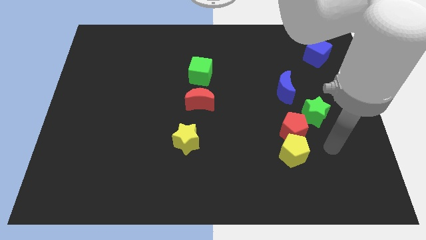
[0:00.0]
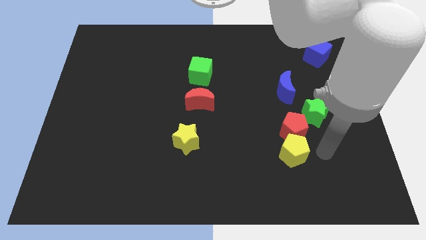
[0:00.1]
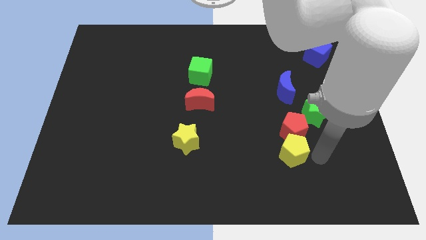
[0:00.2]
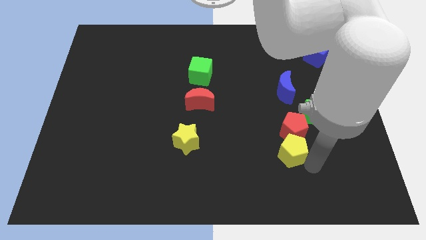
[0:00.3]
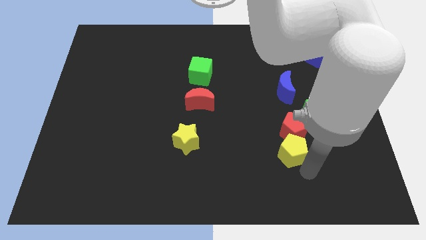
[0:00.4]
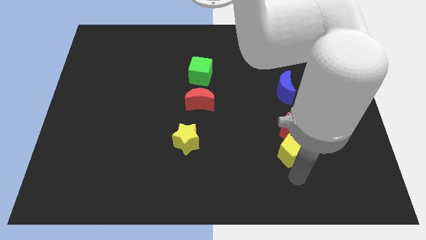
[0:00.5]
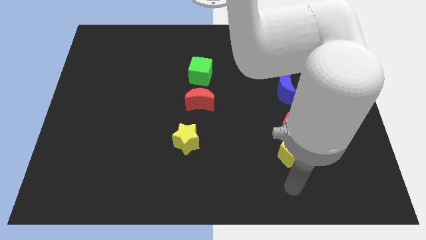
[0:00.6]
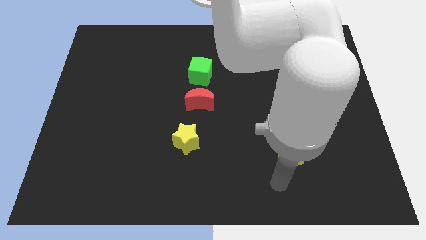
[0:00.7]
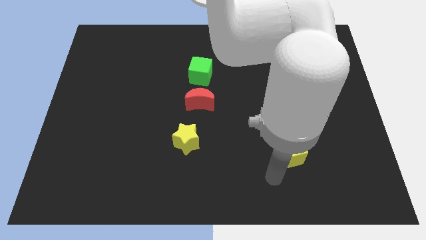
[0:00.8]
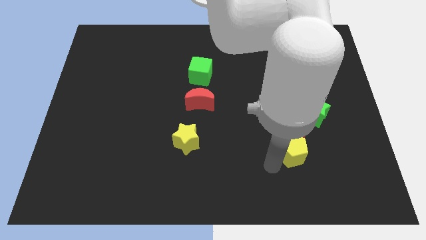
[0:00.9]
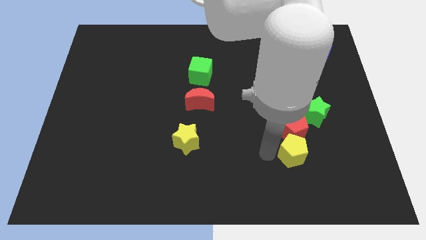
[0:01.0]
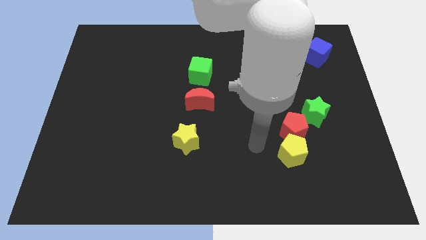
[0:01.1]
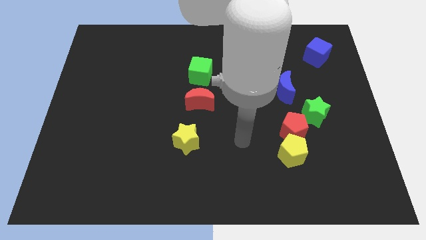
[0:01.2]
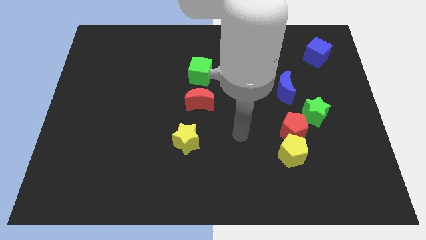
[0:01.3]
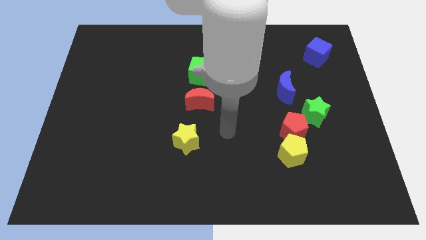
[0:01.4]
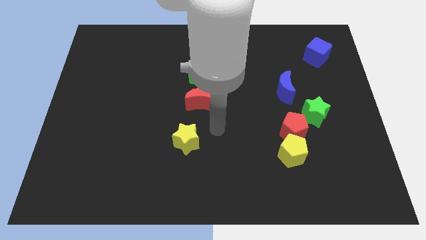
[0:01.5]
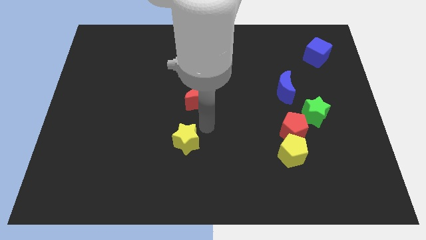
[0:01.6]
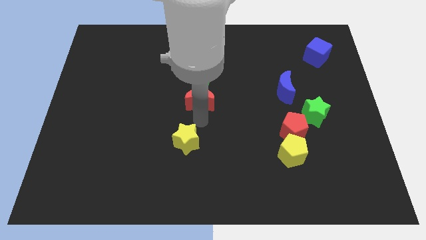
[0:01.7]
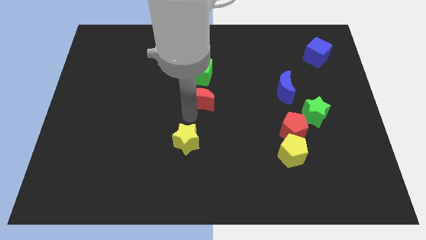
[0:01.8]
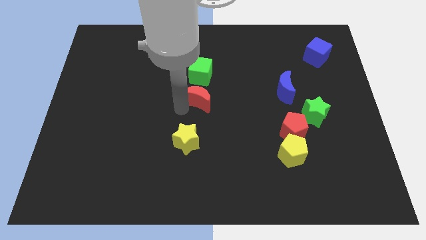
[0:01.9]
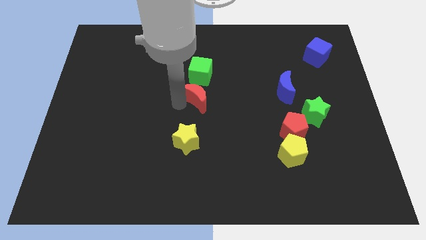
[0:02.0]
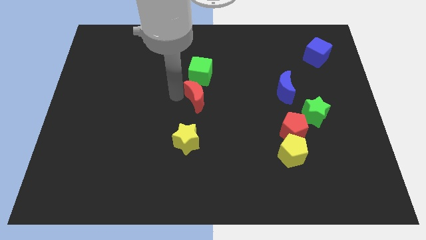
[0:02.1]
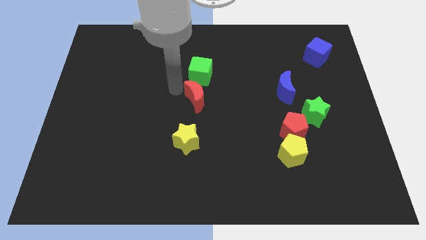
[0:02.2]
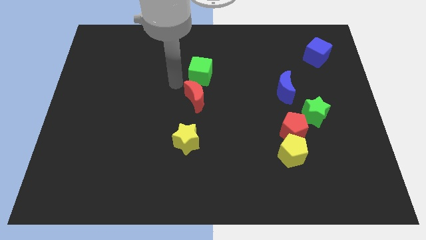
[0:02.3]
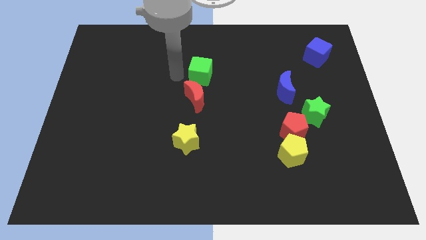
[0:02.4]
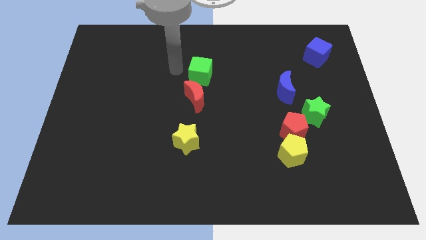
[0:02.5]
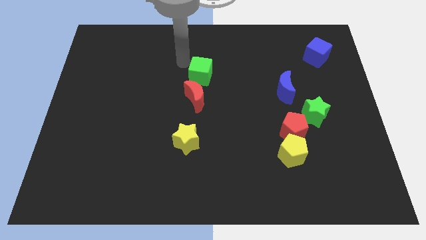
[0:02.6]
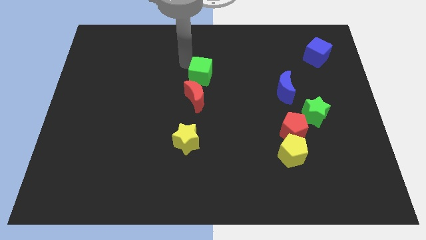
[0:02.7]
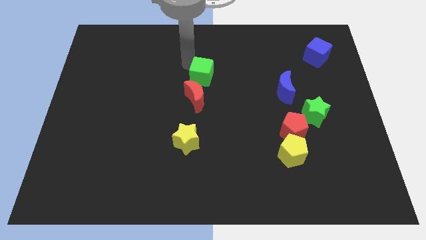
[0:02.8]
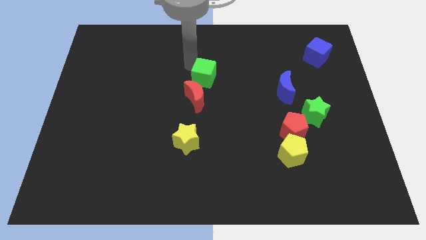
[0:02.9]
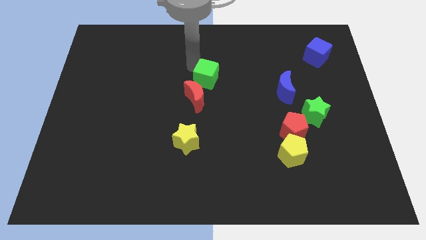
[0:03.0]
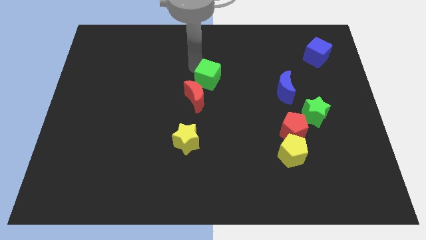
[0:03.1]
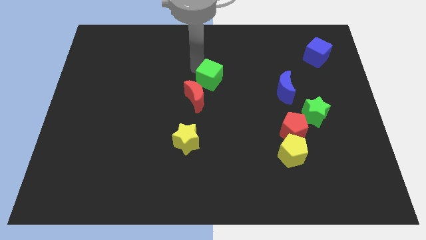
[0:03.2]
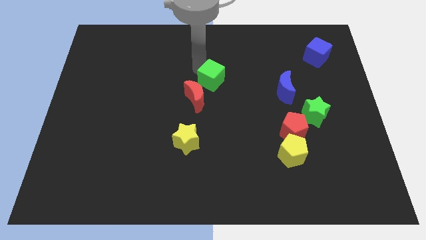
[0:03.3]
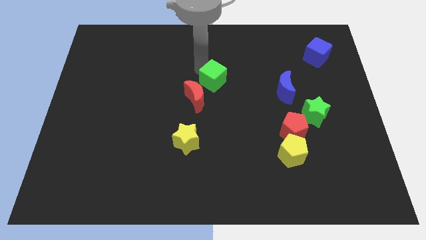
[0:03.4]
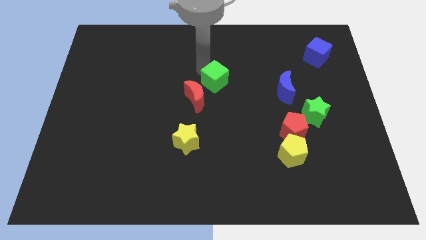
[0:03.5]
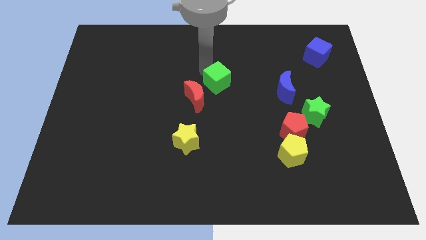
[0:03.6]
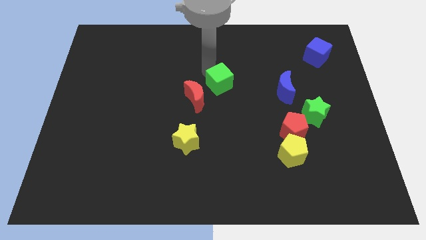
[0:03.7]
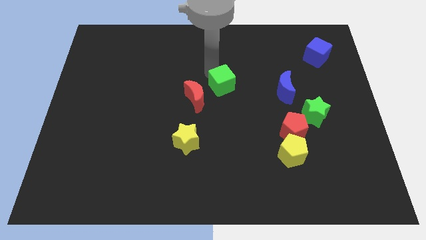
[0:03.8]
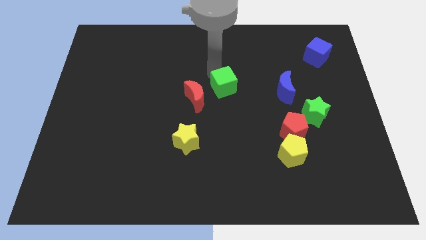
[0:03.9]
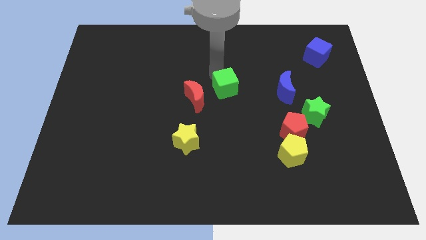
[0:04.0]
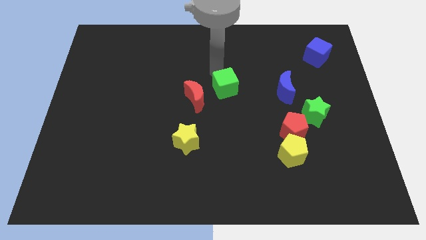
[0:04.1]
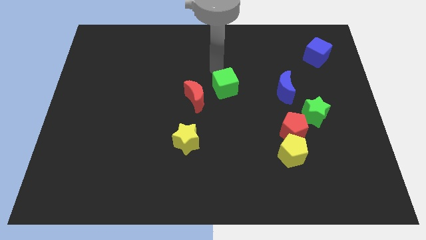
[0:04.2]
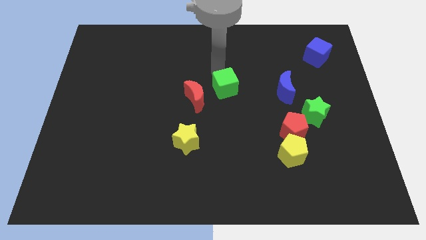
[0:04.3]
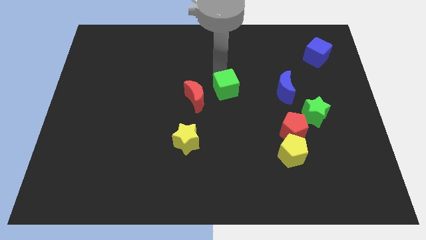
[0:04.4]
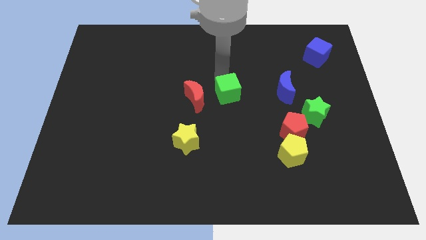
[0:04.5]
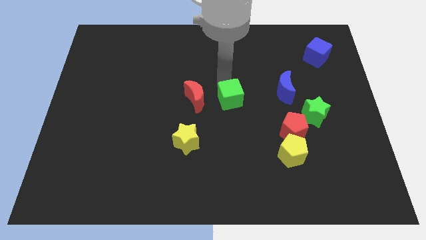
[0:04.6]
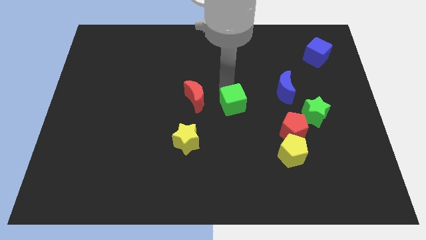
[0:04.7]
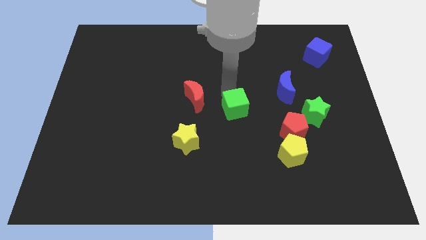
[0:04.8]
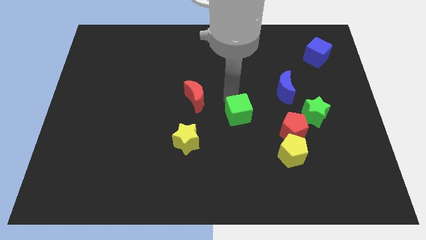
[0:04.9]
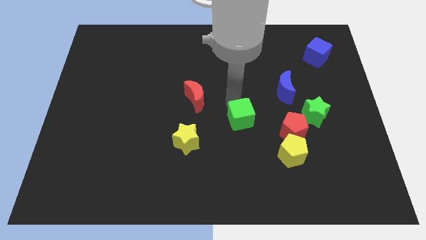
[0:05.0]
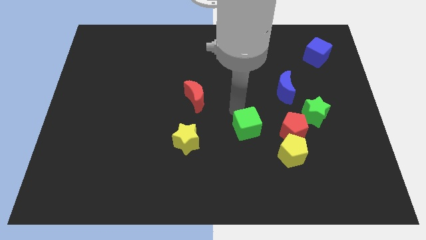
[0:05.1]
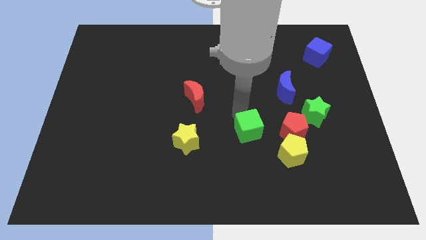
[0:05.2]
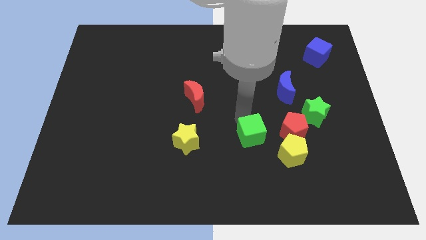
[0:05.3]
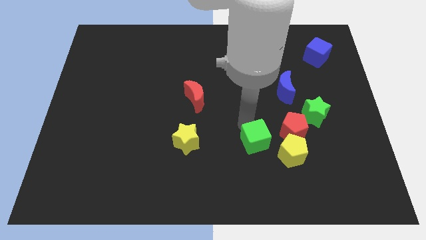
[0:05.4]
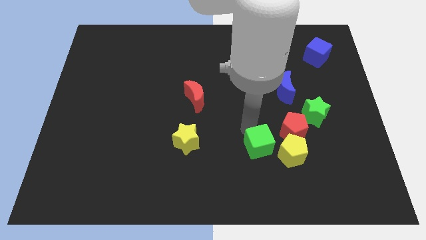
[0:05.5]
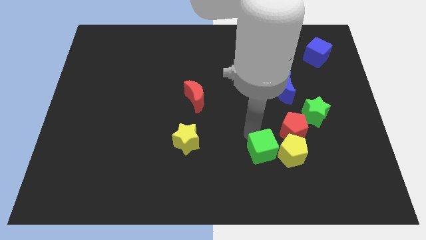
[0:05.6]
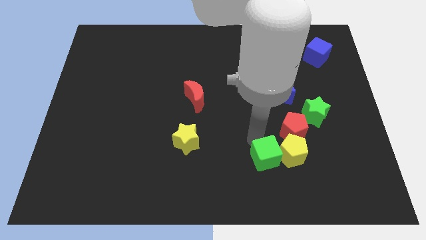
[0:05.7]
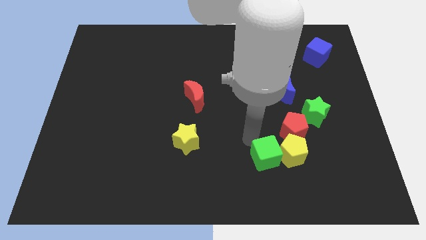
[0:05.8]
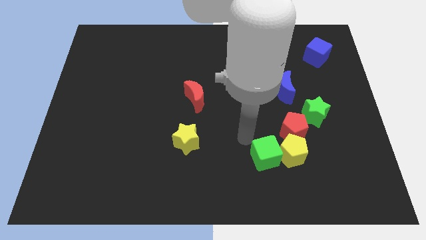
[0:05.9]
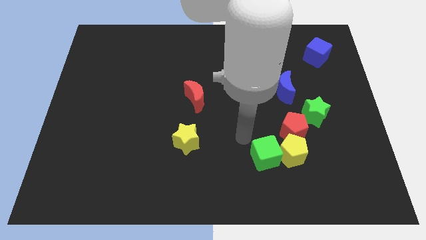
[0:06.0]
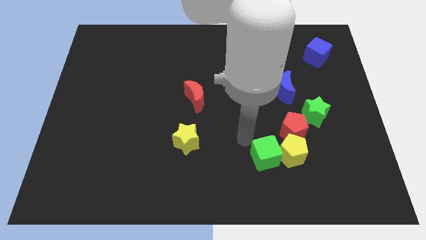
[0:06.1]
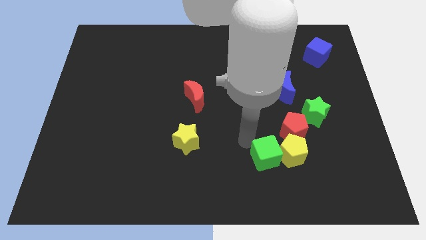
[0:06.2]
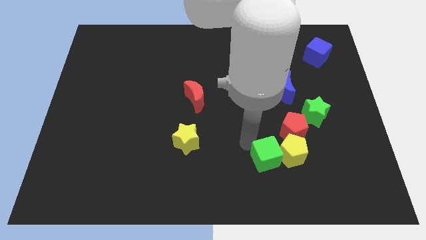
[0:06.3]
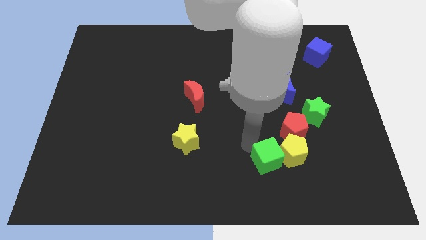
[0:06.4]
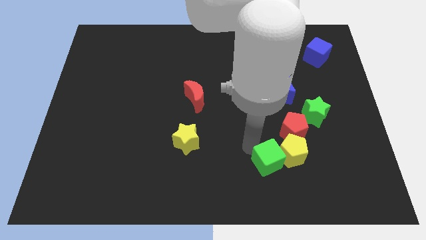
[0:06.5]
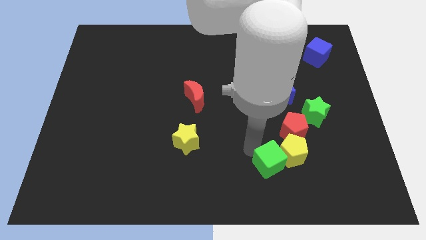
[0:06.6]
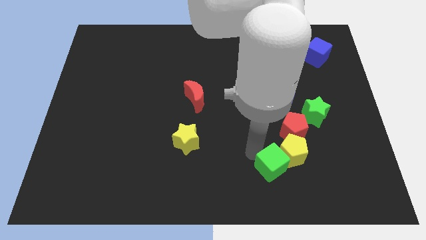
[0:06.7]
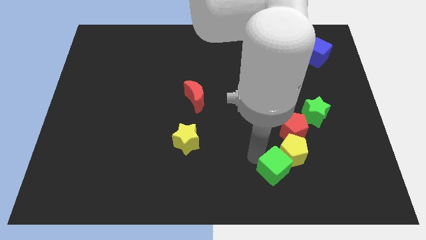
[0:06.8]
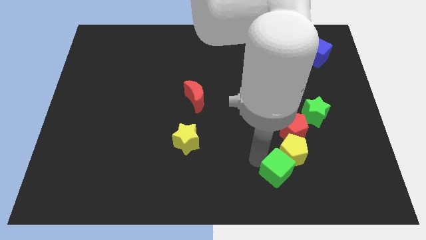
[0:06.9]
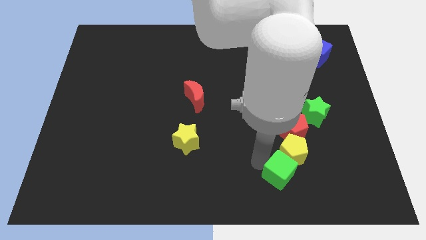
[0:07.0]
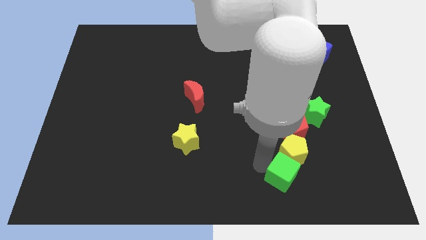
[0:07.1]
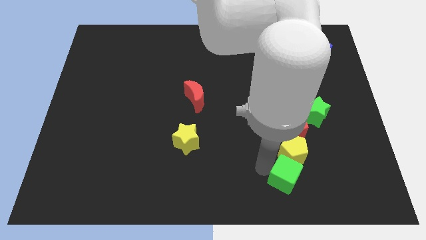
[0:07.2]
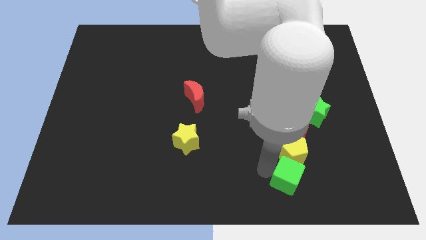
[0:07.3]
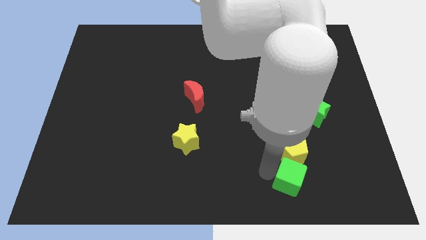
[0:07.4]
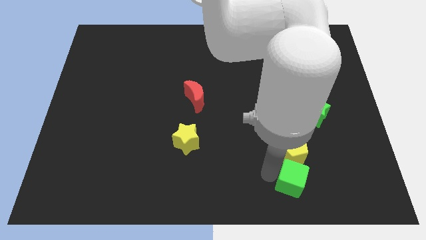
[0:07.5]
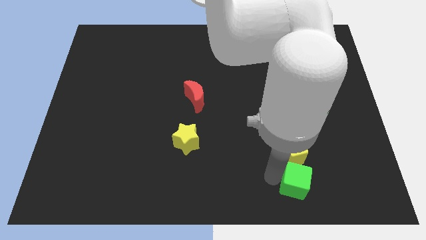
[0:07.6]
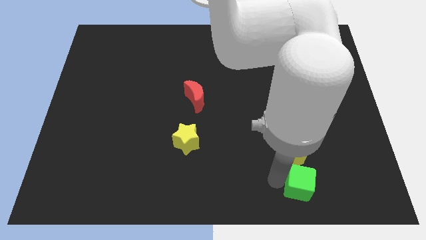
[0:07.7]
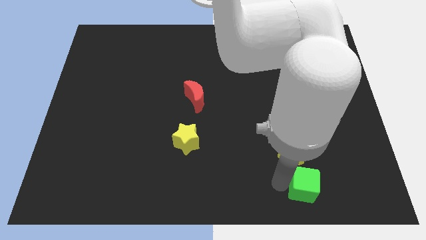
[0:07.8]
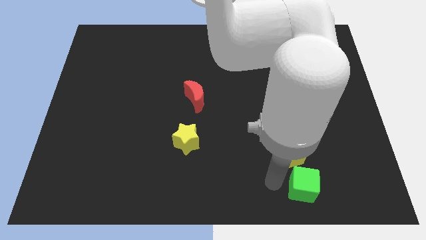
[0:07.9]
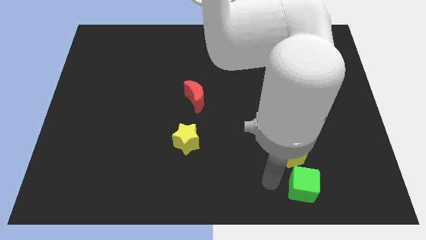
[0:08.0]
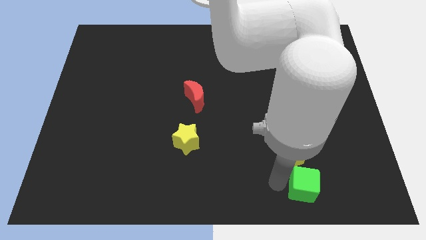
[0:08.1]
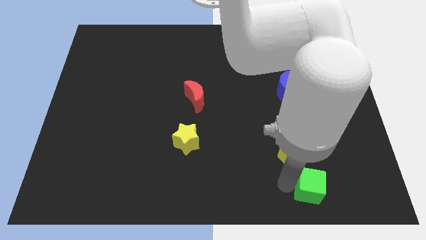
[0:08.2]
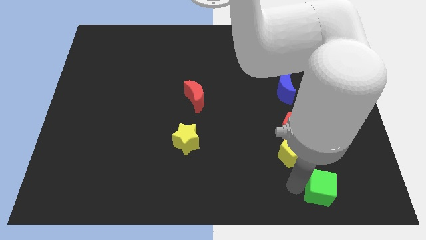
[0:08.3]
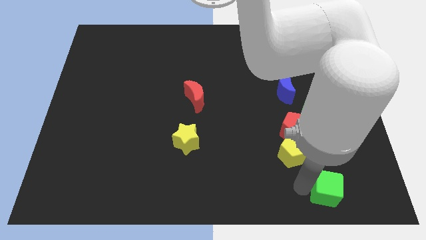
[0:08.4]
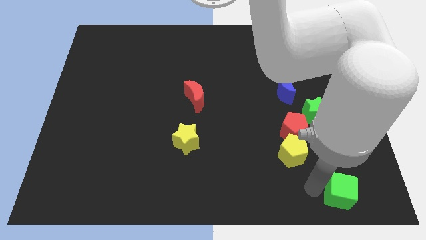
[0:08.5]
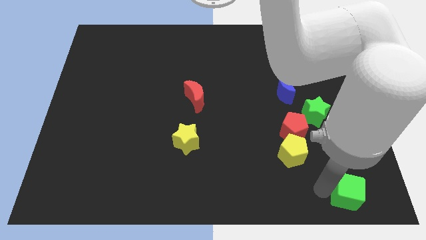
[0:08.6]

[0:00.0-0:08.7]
move the green cube to the lower right corner
